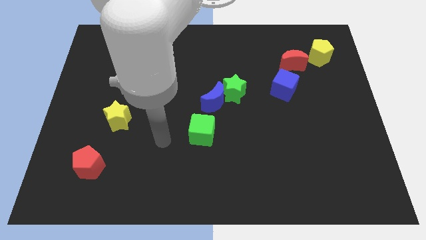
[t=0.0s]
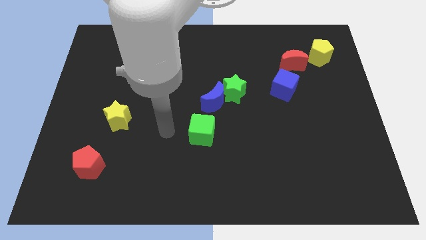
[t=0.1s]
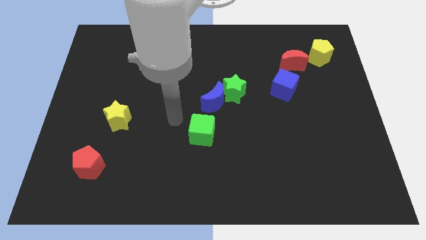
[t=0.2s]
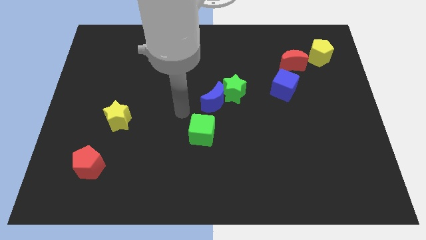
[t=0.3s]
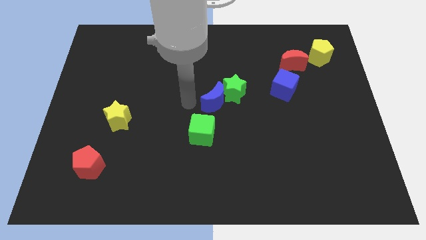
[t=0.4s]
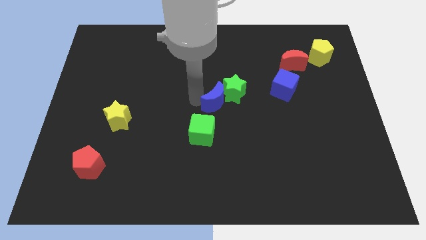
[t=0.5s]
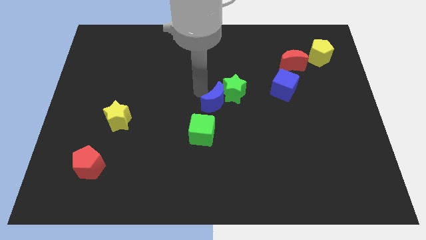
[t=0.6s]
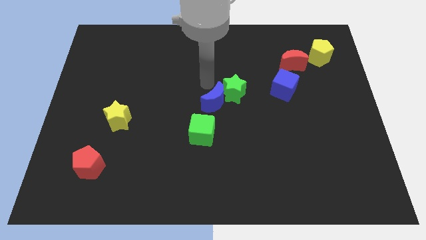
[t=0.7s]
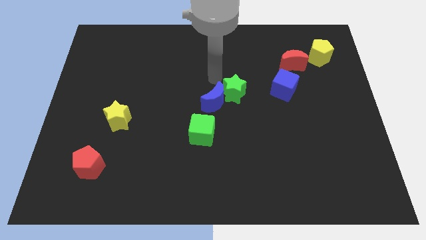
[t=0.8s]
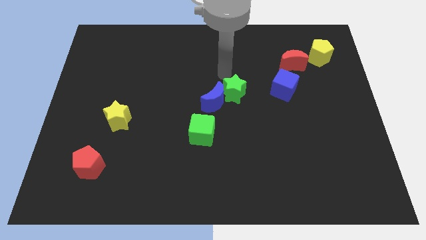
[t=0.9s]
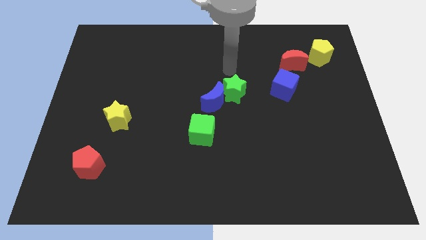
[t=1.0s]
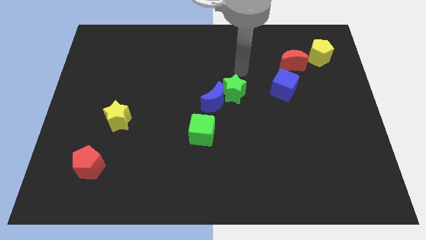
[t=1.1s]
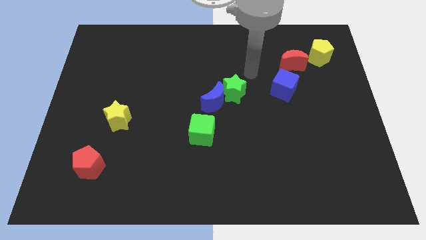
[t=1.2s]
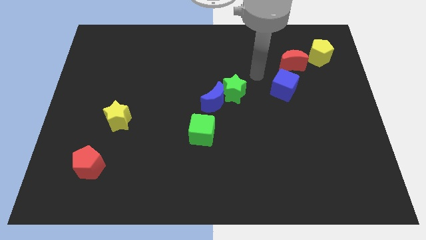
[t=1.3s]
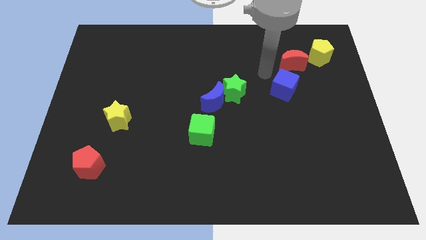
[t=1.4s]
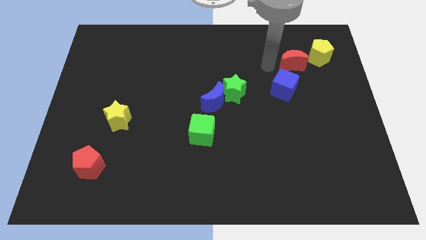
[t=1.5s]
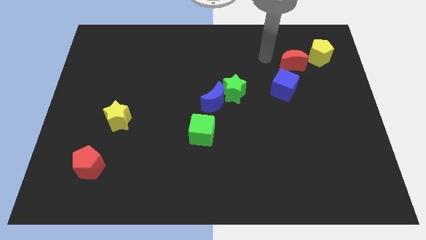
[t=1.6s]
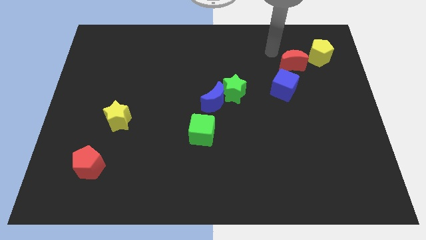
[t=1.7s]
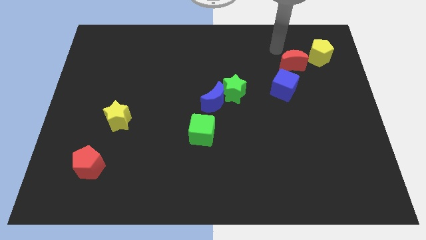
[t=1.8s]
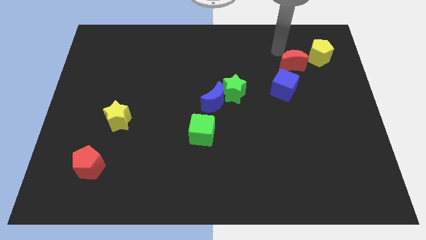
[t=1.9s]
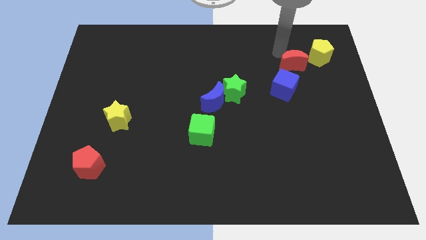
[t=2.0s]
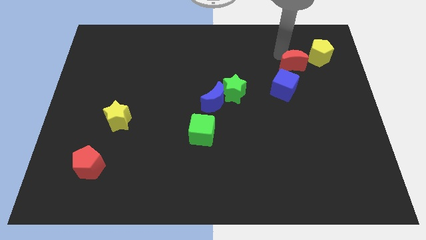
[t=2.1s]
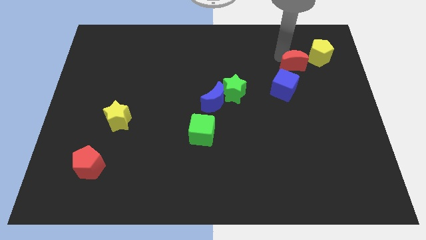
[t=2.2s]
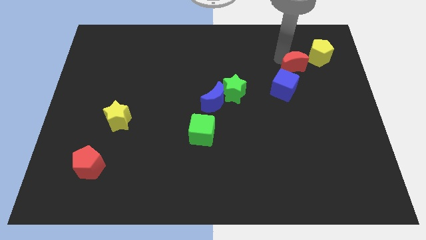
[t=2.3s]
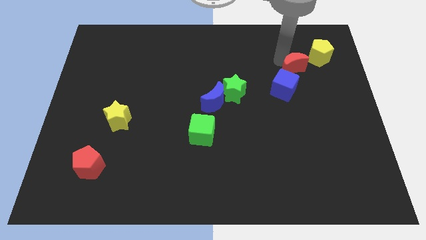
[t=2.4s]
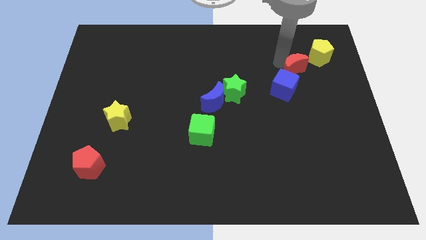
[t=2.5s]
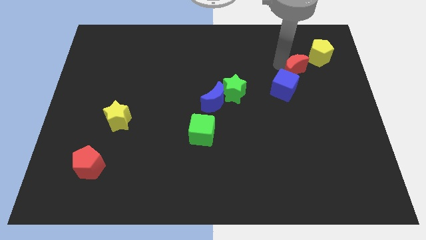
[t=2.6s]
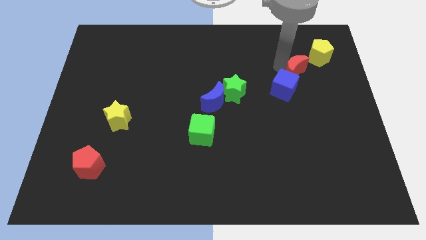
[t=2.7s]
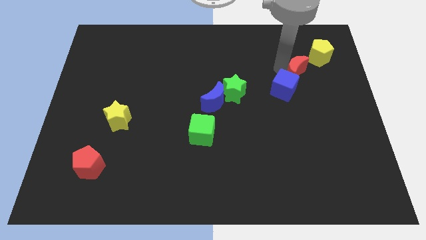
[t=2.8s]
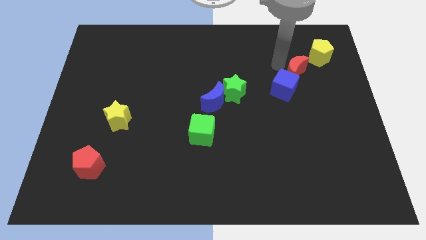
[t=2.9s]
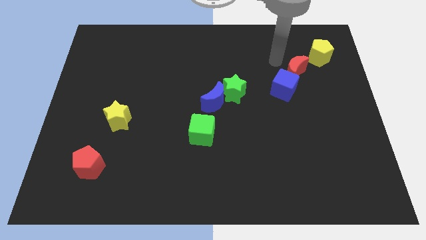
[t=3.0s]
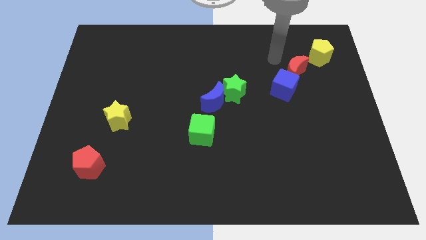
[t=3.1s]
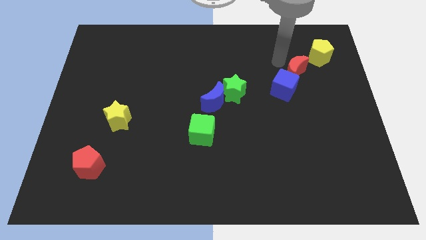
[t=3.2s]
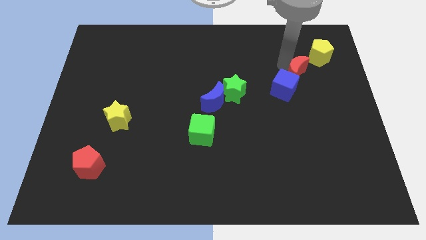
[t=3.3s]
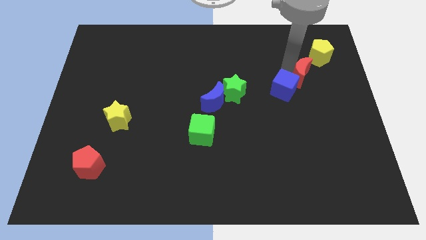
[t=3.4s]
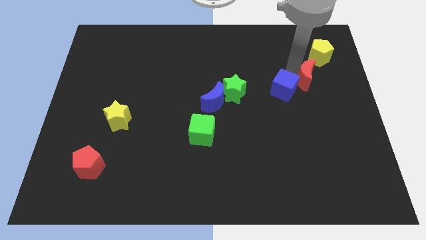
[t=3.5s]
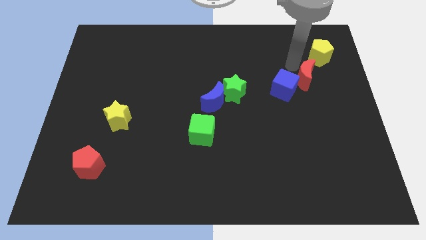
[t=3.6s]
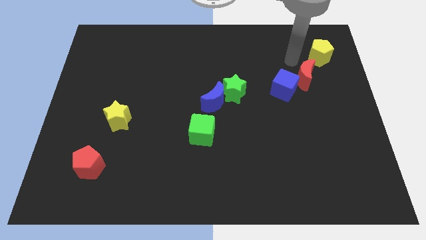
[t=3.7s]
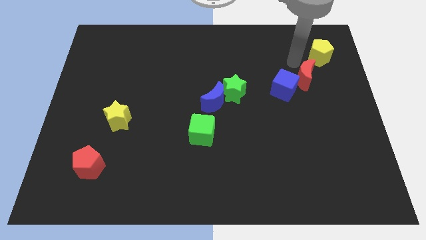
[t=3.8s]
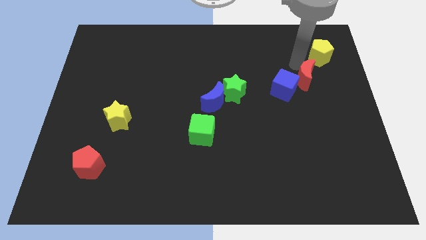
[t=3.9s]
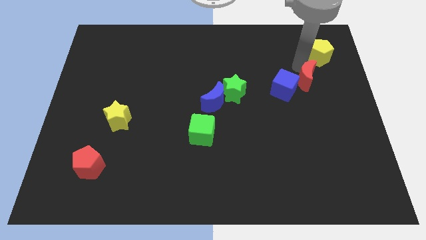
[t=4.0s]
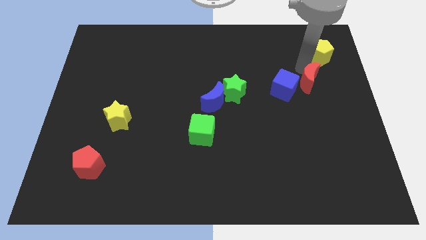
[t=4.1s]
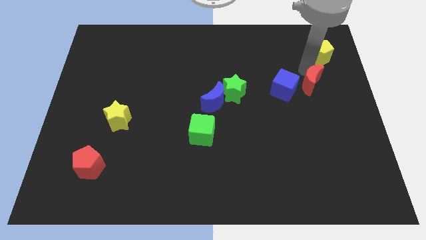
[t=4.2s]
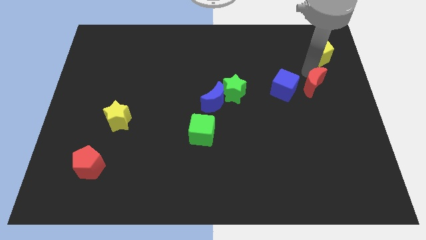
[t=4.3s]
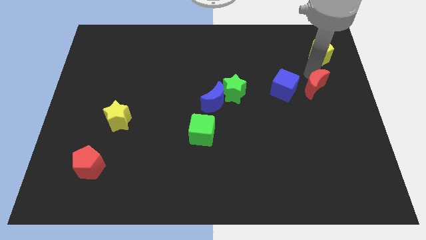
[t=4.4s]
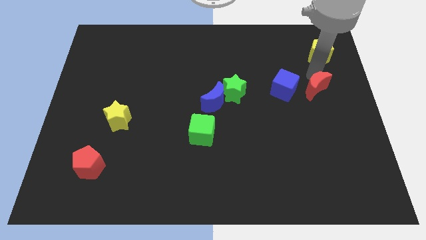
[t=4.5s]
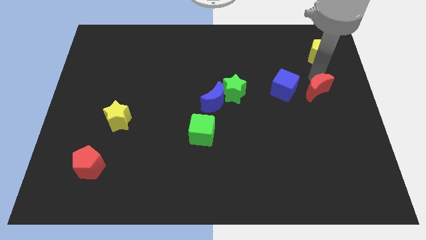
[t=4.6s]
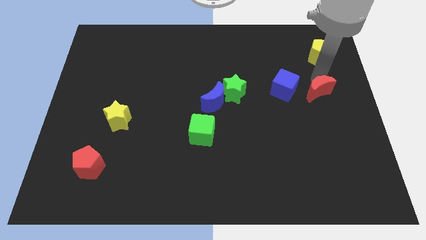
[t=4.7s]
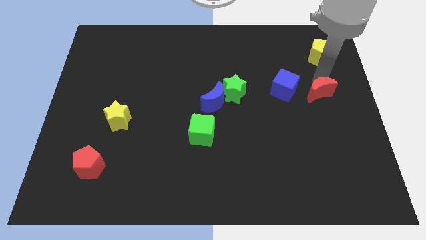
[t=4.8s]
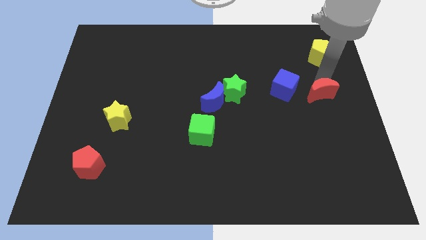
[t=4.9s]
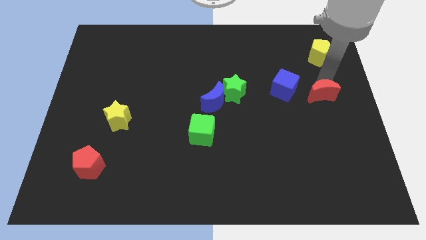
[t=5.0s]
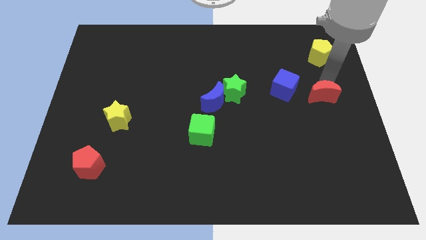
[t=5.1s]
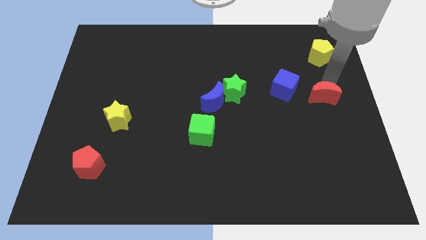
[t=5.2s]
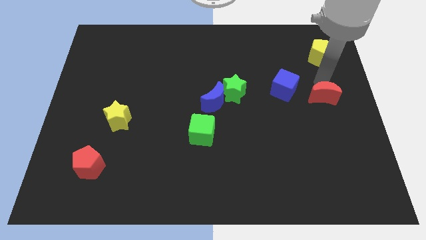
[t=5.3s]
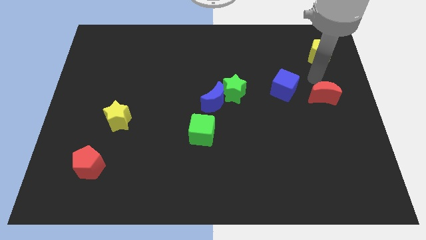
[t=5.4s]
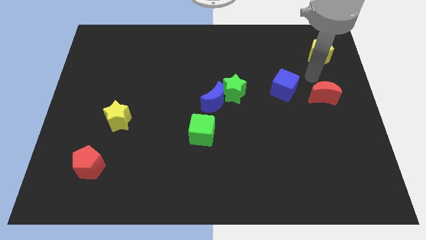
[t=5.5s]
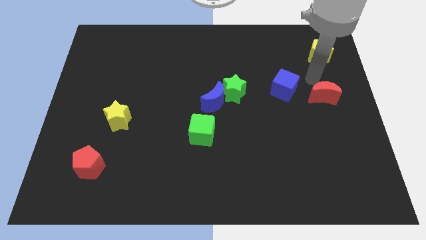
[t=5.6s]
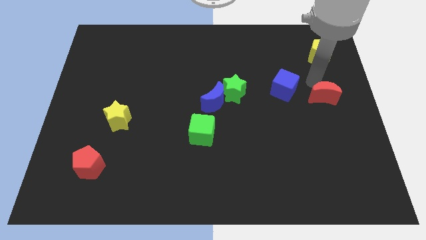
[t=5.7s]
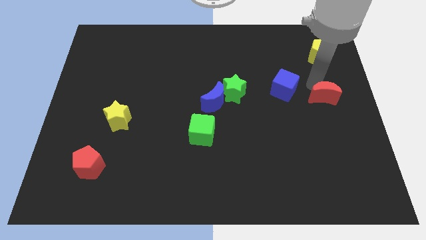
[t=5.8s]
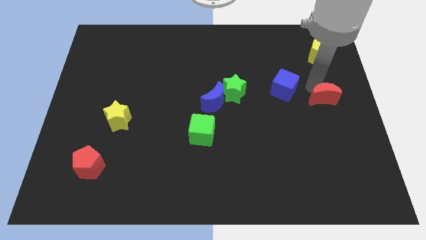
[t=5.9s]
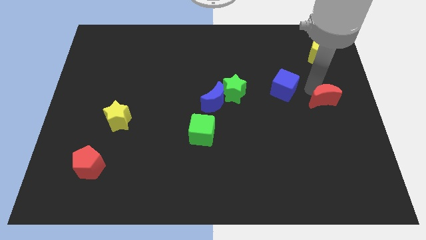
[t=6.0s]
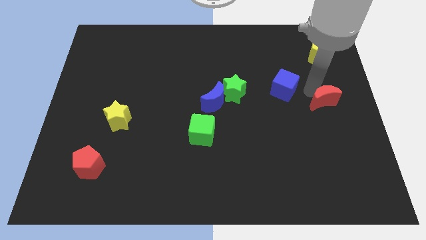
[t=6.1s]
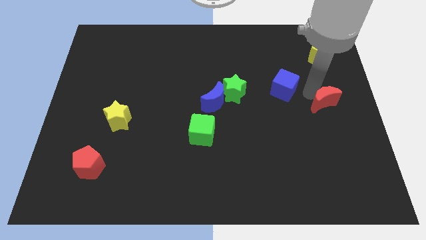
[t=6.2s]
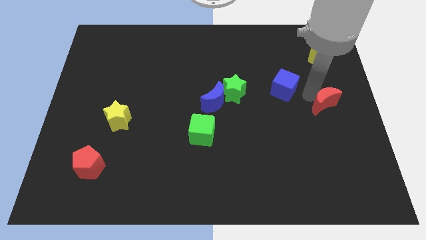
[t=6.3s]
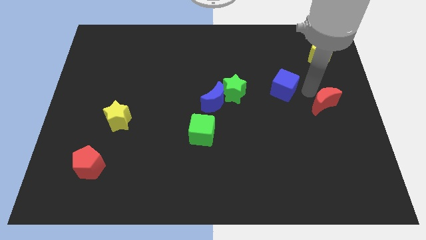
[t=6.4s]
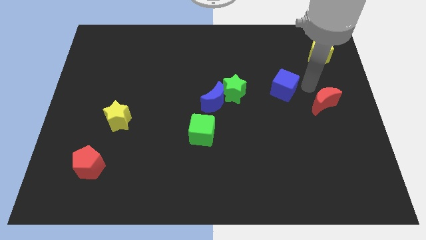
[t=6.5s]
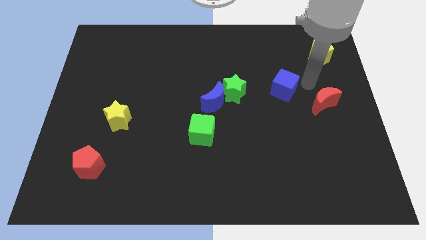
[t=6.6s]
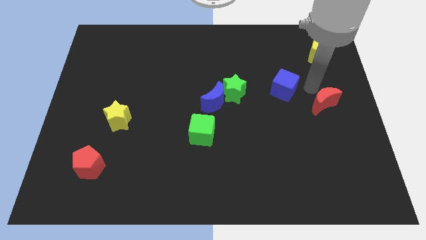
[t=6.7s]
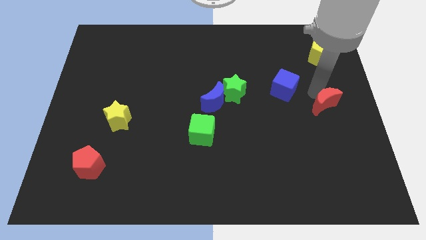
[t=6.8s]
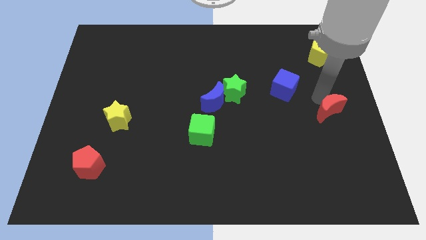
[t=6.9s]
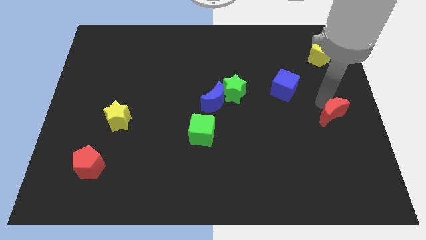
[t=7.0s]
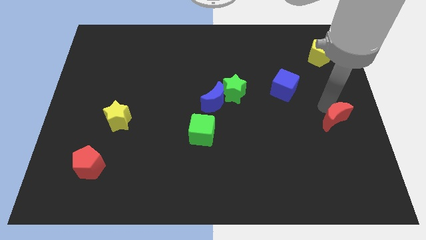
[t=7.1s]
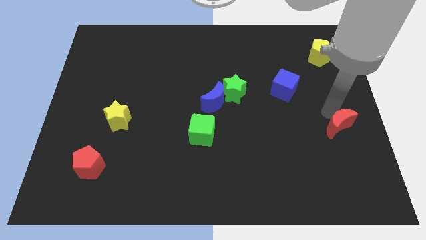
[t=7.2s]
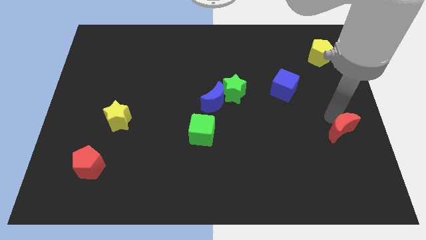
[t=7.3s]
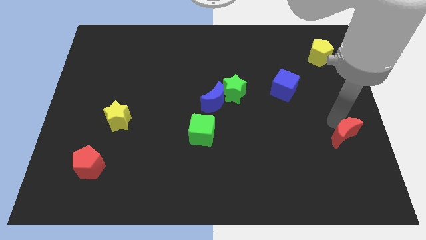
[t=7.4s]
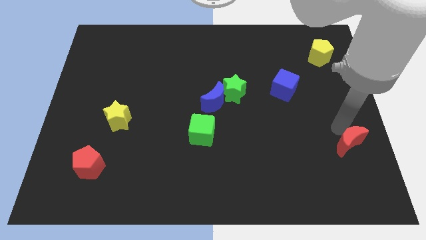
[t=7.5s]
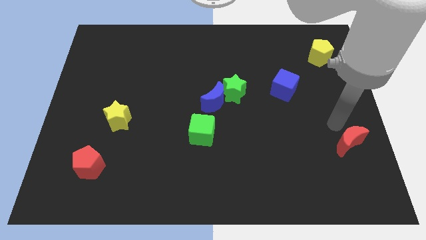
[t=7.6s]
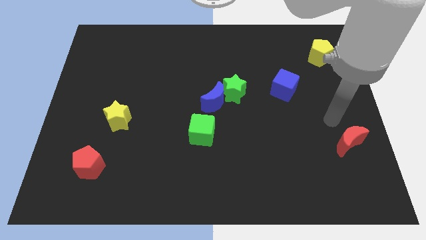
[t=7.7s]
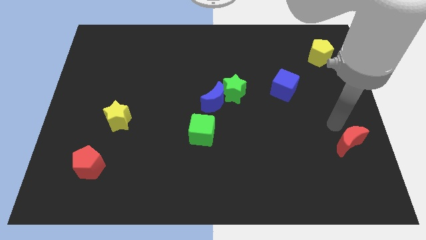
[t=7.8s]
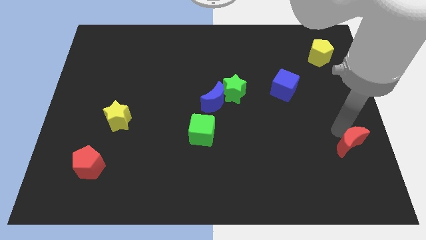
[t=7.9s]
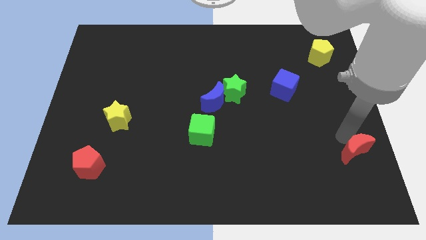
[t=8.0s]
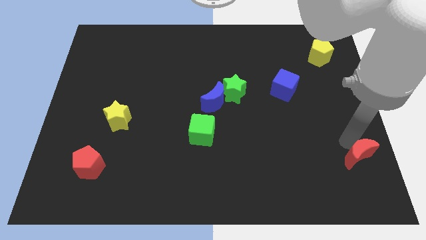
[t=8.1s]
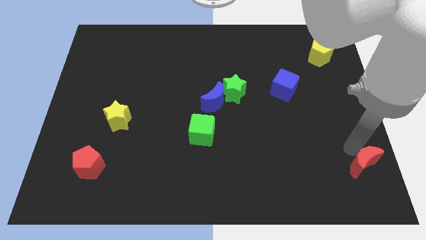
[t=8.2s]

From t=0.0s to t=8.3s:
put the red moon to the lower right corner
